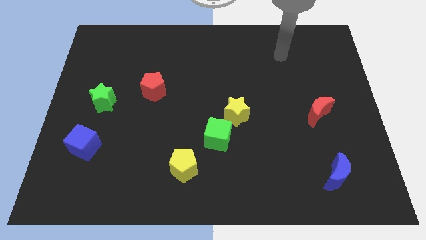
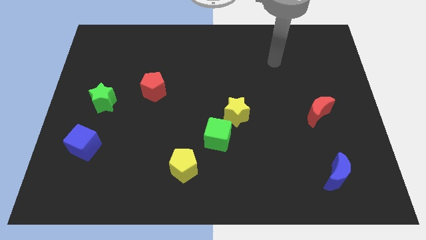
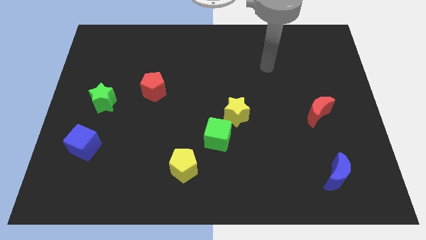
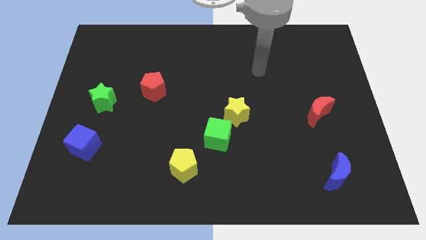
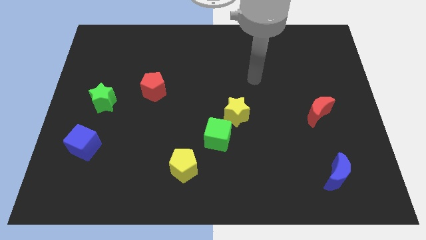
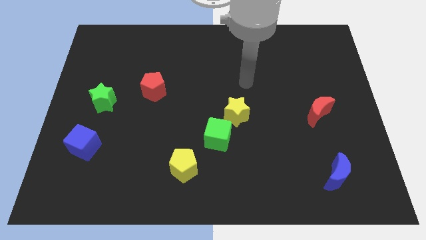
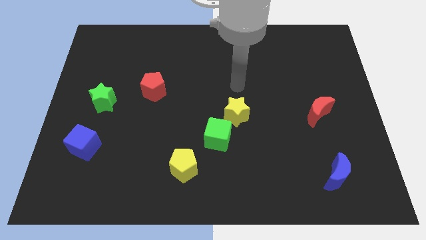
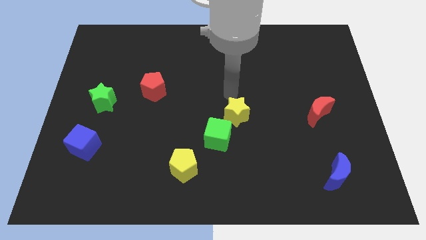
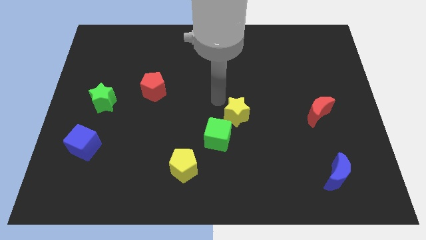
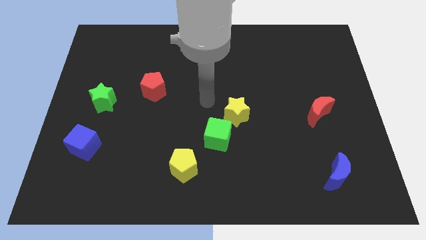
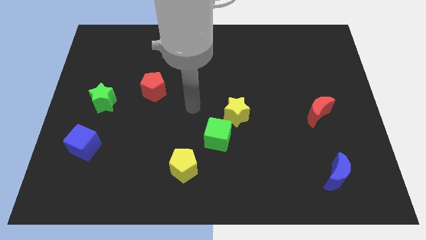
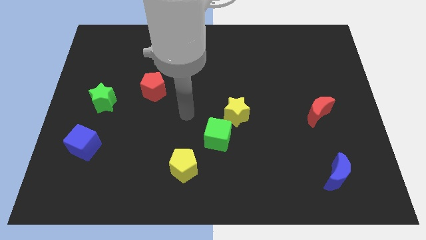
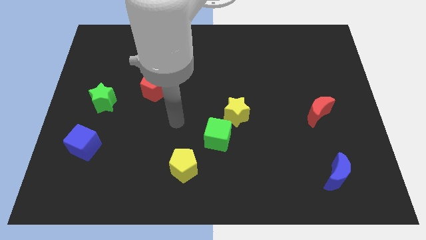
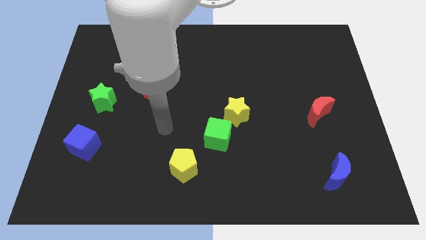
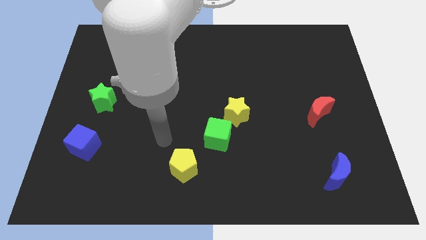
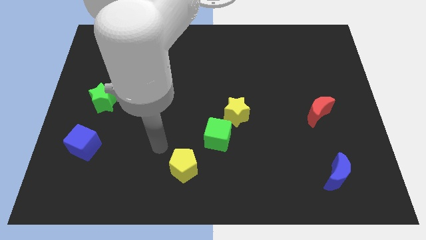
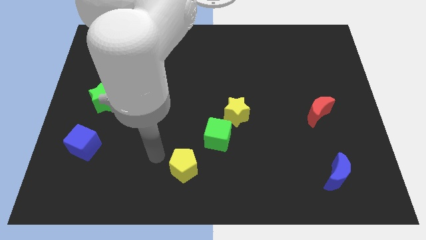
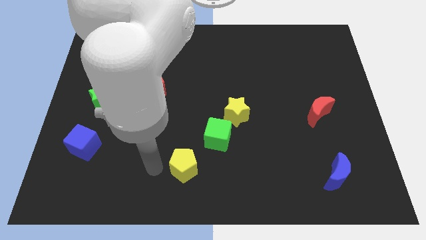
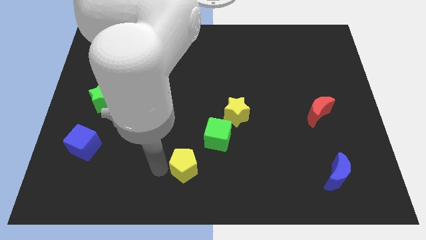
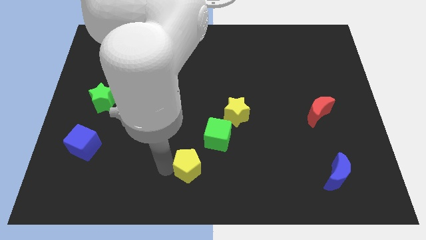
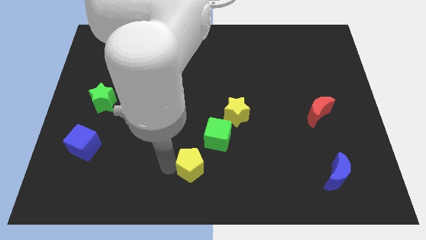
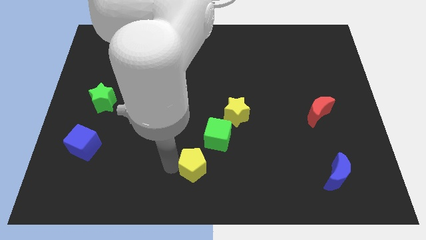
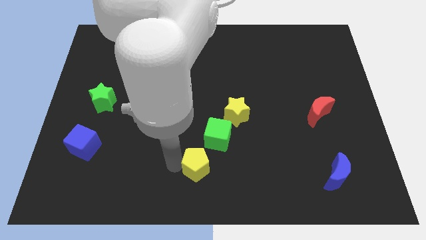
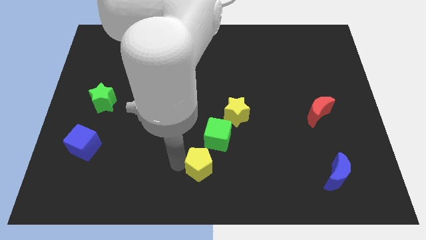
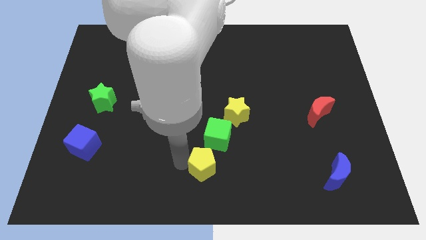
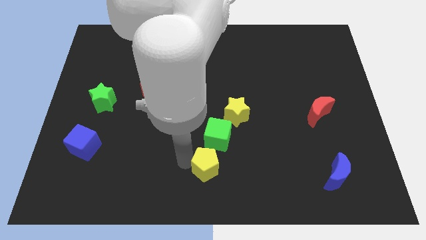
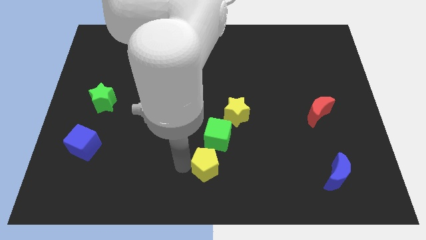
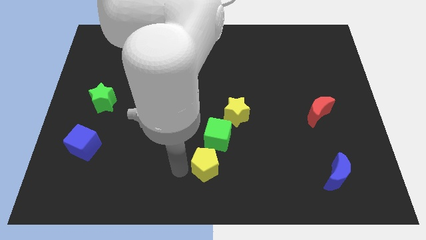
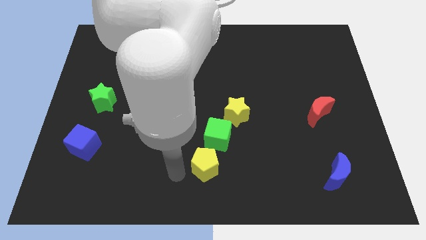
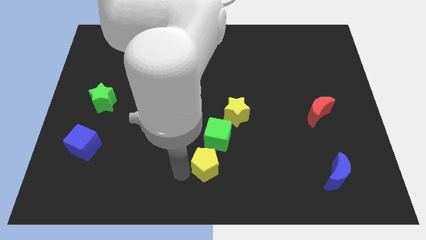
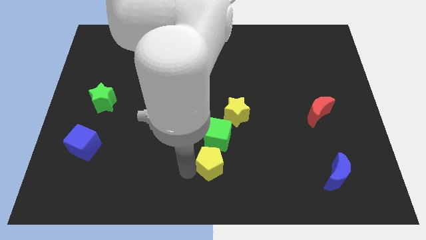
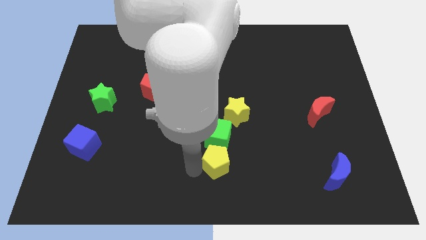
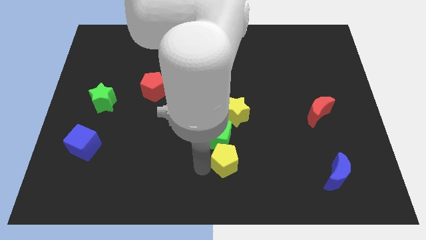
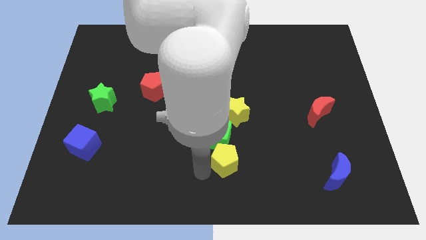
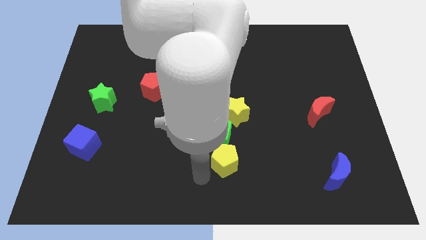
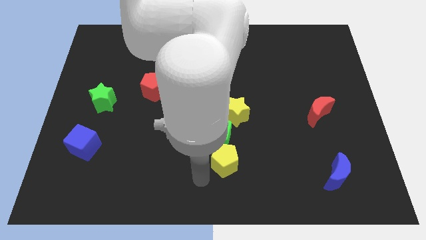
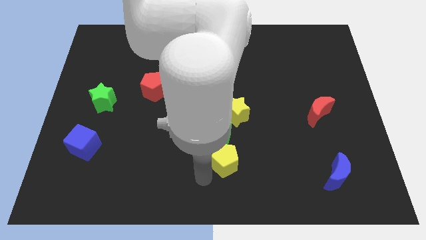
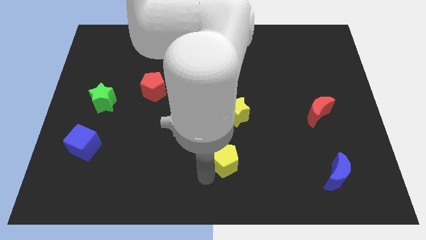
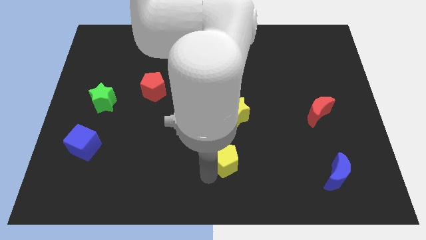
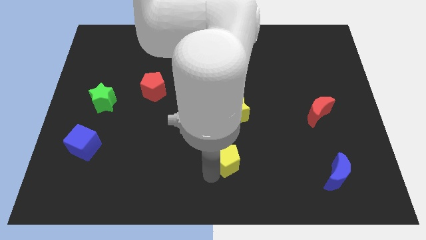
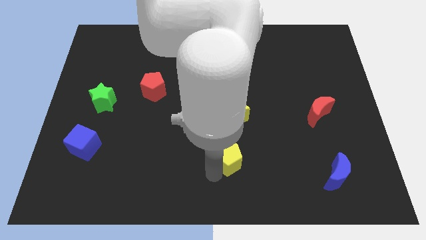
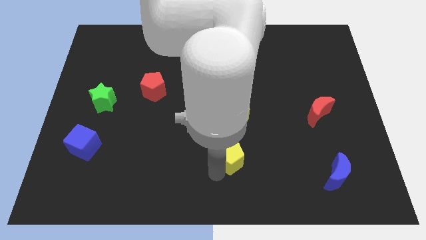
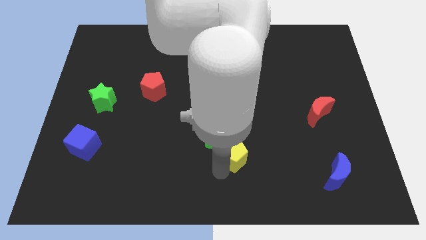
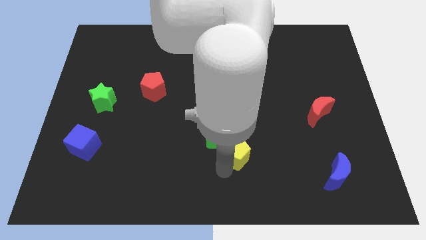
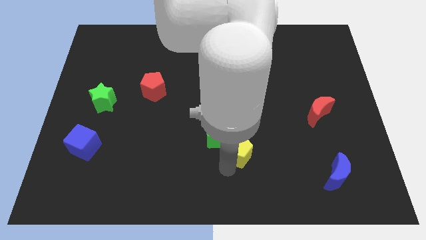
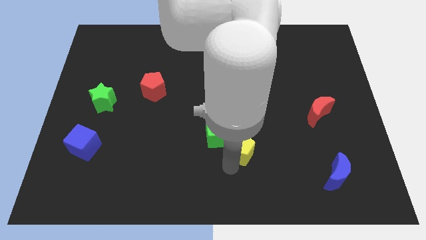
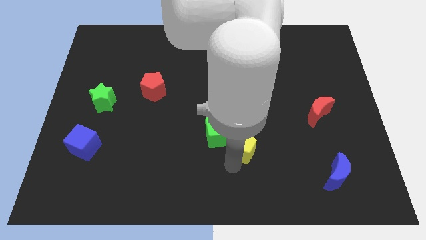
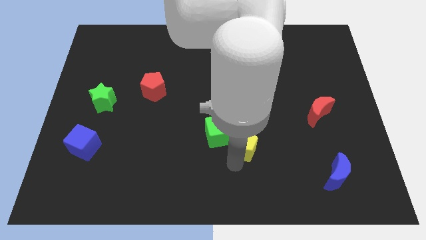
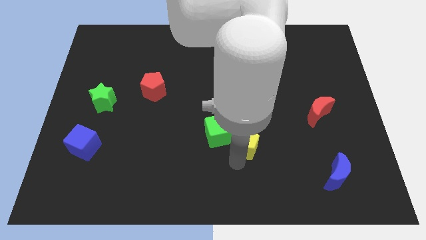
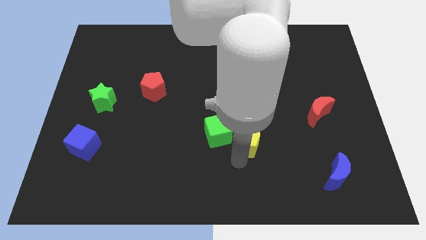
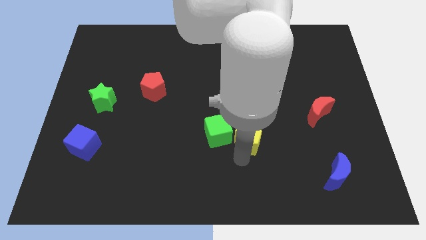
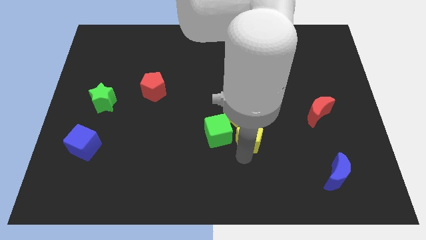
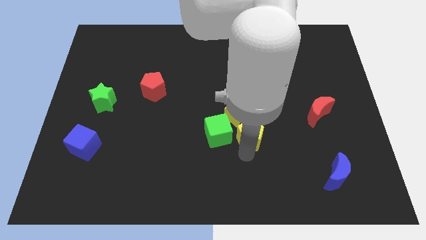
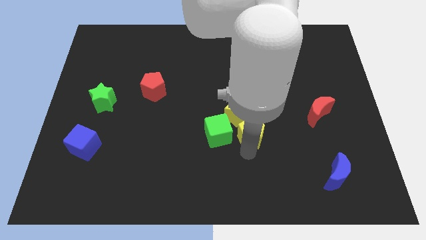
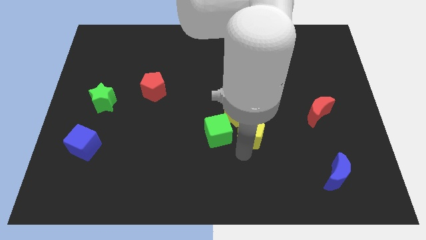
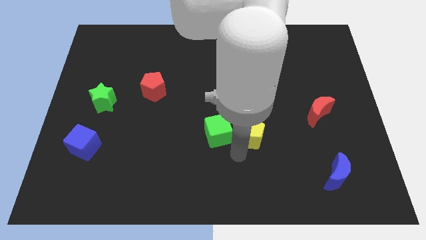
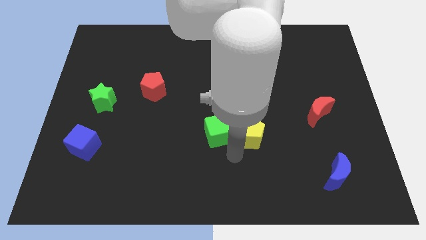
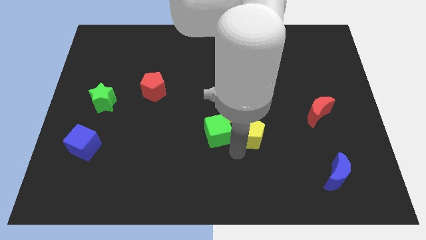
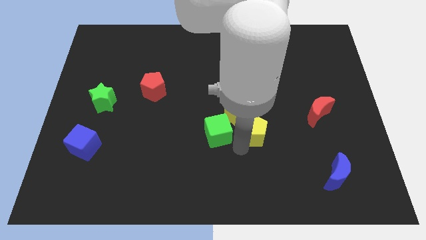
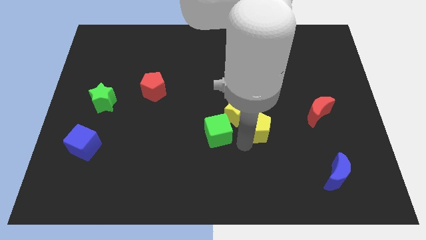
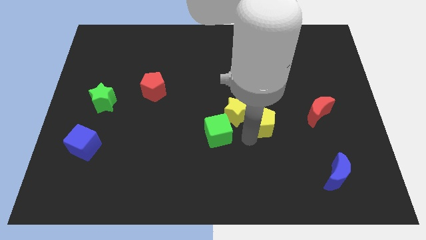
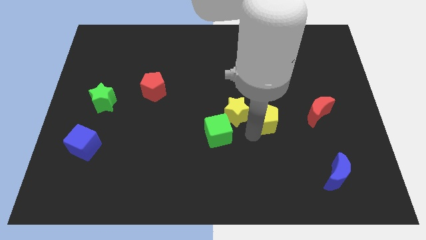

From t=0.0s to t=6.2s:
slide the yellow pentagon upwards and then right

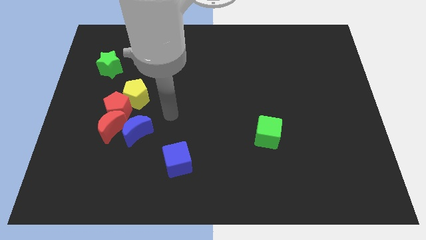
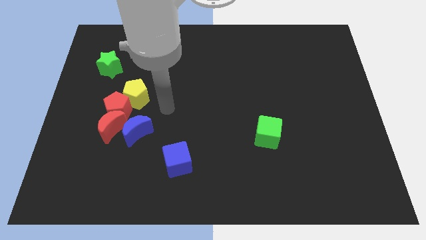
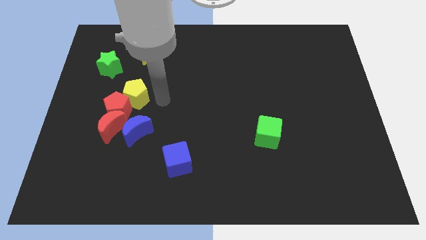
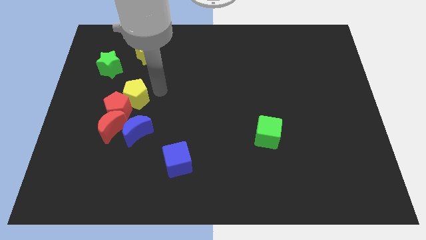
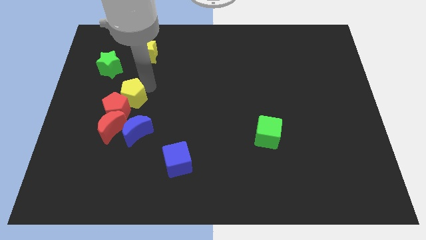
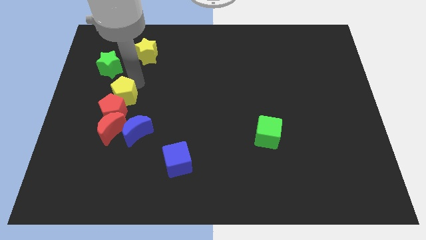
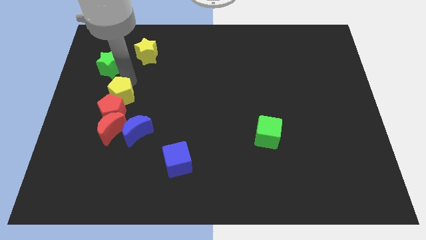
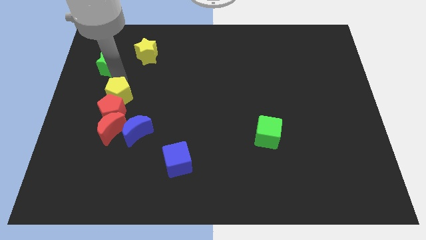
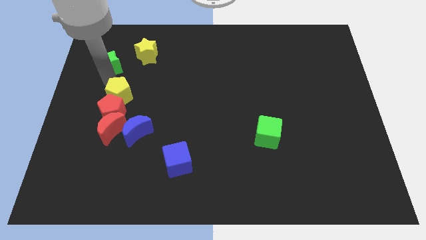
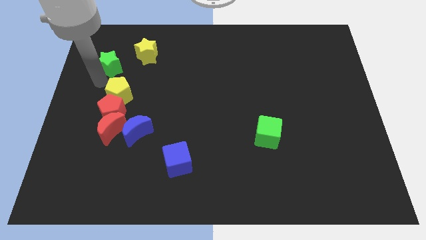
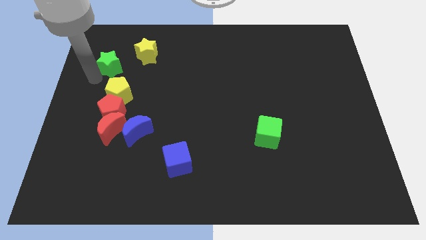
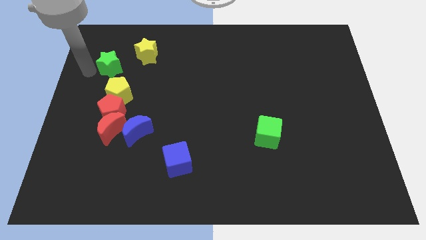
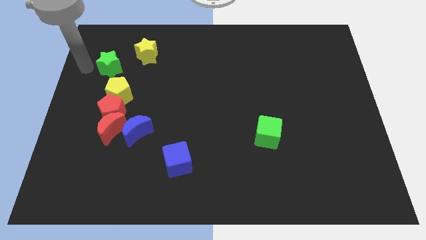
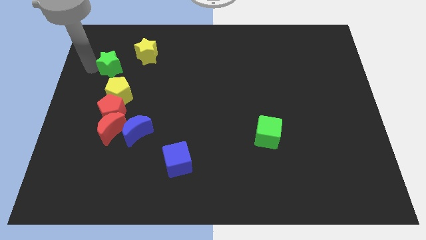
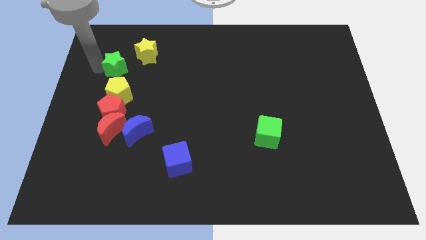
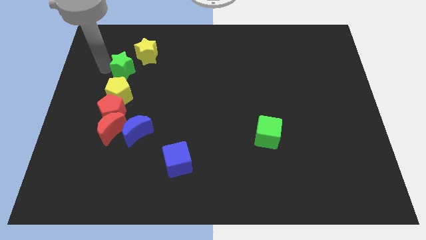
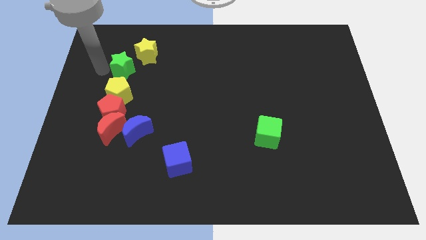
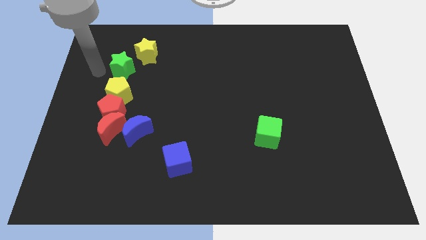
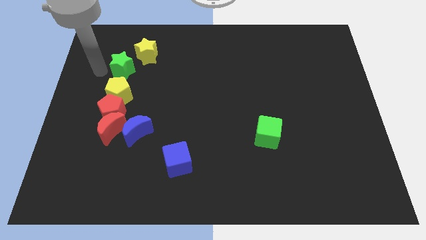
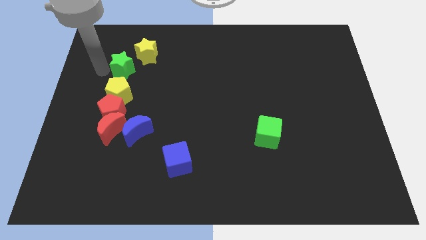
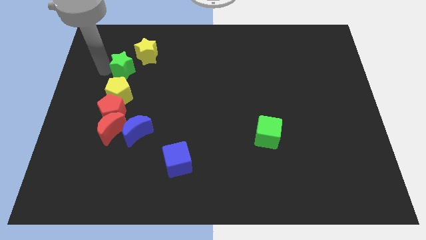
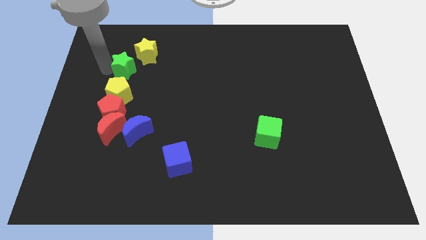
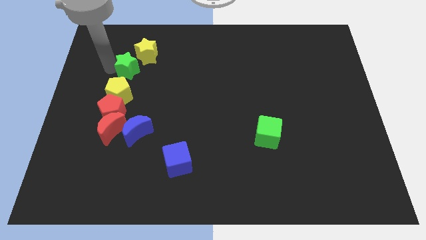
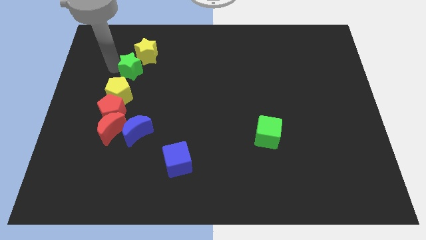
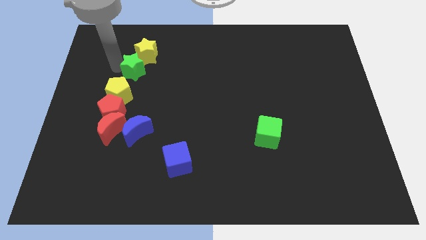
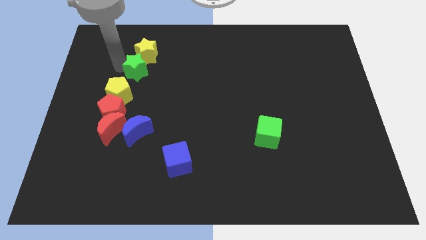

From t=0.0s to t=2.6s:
push the green star right a little bit
